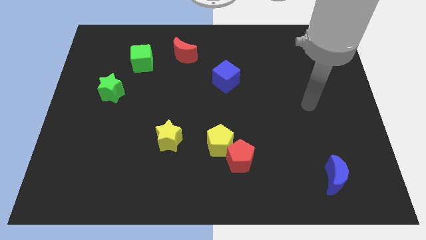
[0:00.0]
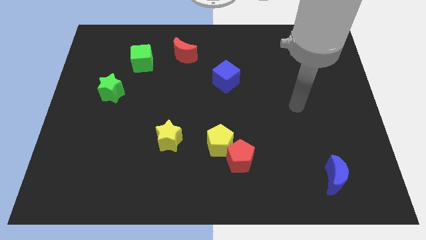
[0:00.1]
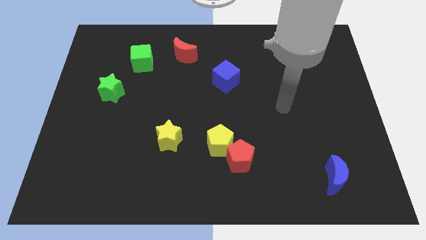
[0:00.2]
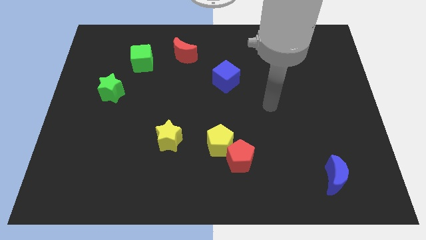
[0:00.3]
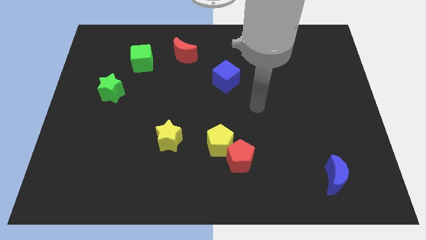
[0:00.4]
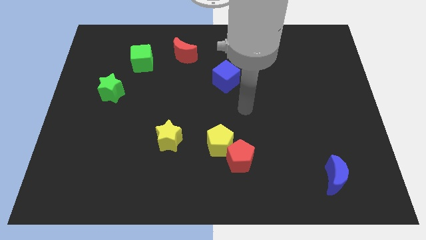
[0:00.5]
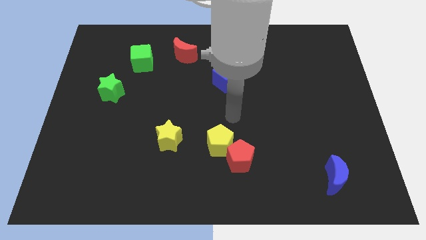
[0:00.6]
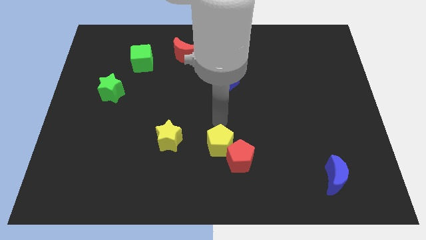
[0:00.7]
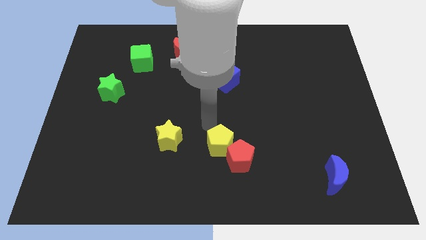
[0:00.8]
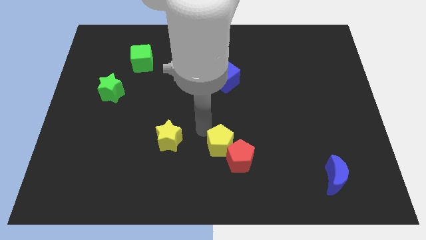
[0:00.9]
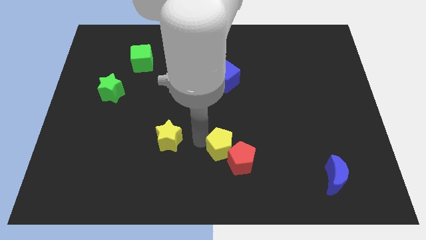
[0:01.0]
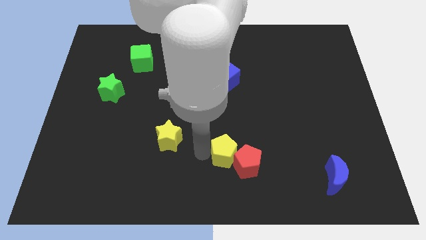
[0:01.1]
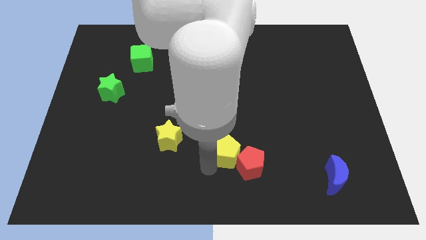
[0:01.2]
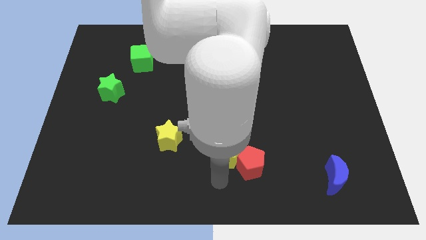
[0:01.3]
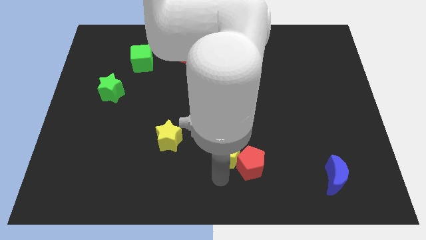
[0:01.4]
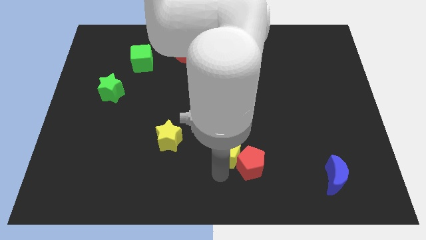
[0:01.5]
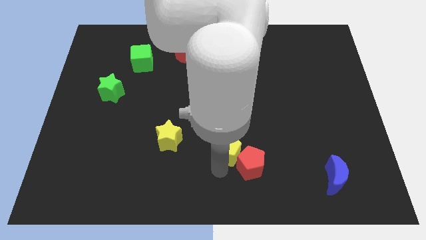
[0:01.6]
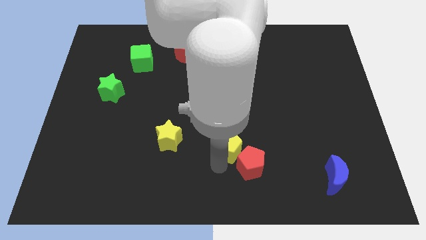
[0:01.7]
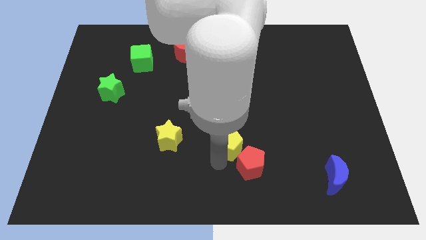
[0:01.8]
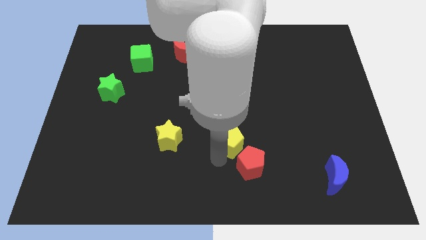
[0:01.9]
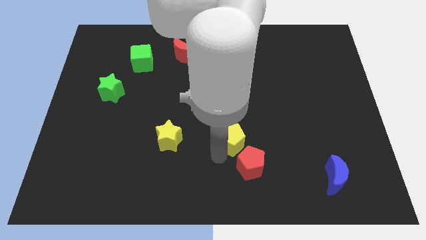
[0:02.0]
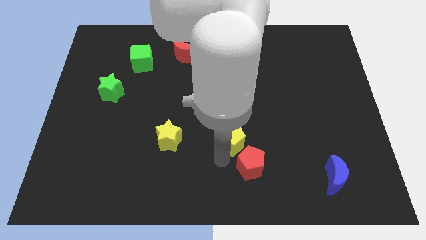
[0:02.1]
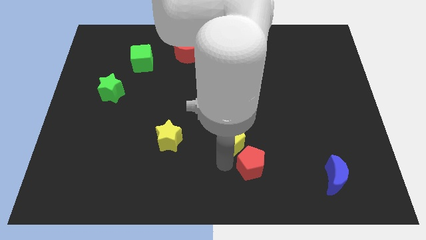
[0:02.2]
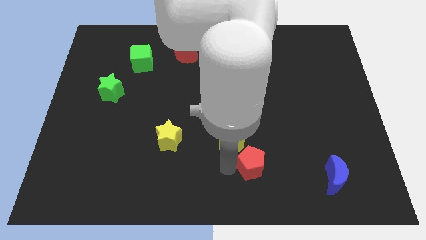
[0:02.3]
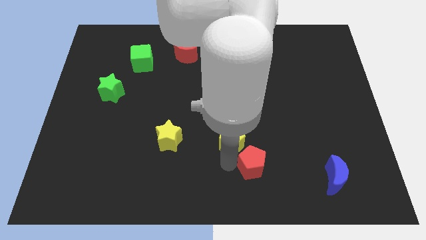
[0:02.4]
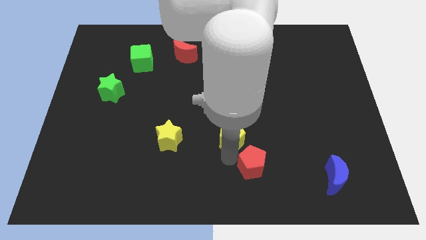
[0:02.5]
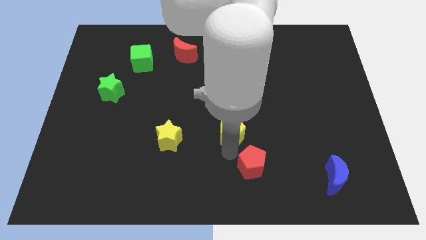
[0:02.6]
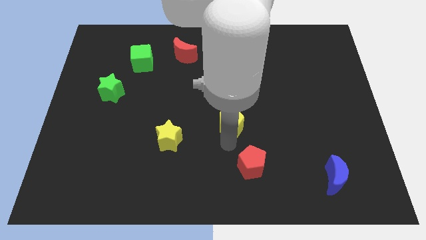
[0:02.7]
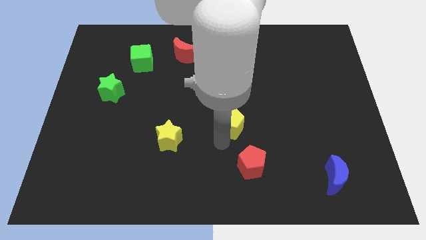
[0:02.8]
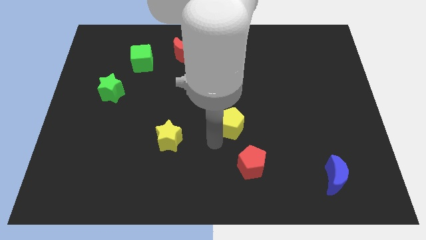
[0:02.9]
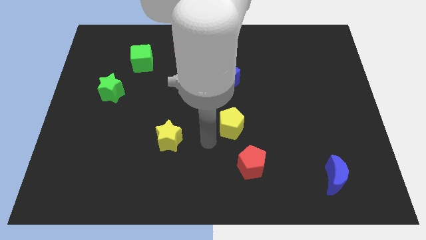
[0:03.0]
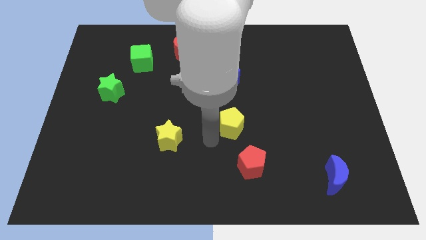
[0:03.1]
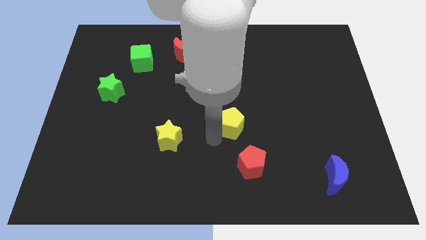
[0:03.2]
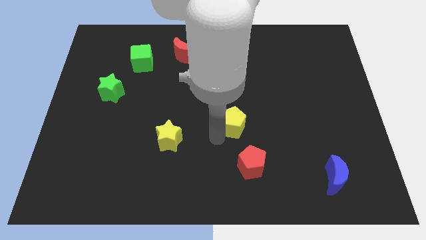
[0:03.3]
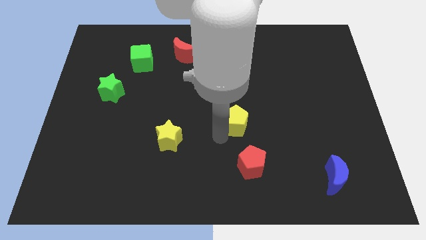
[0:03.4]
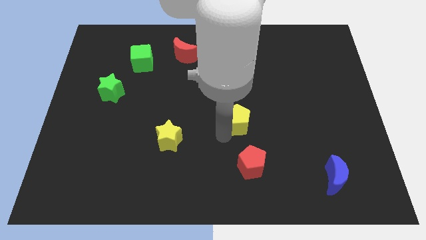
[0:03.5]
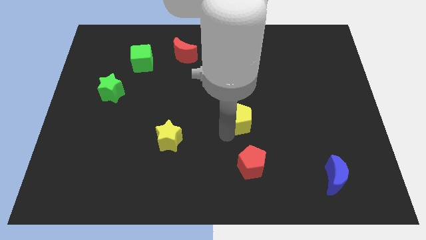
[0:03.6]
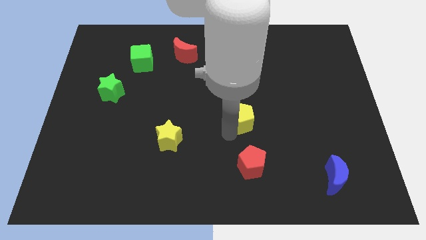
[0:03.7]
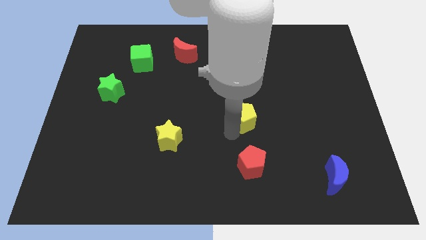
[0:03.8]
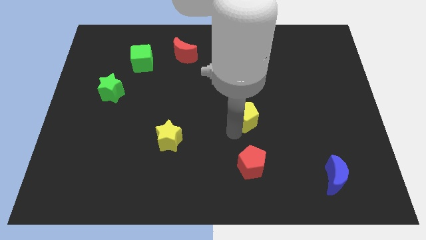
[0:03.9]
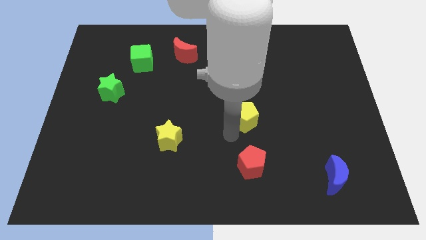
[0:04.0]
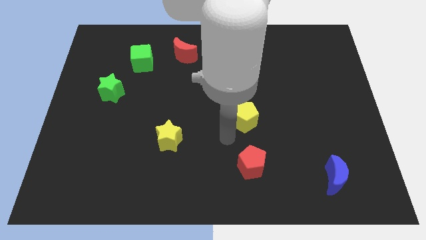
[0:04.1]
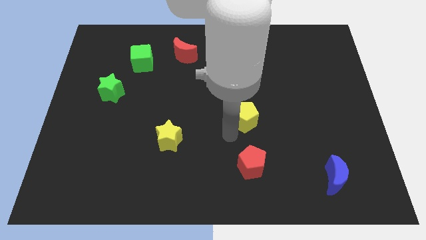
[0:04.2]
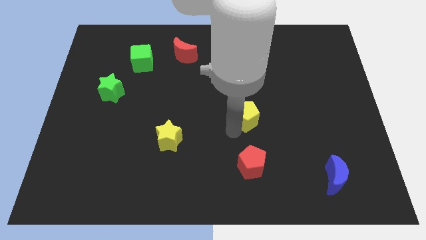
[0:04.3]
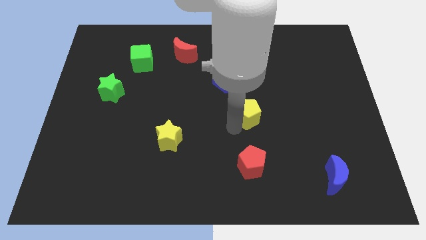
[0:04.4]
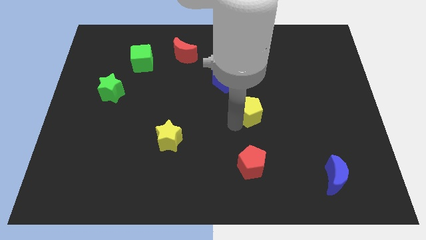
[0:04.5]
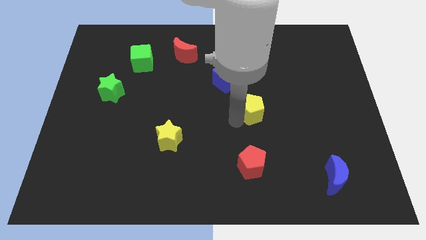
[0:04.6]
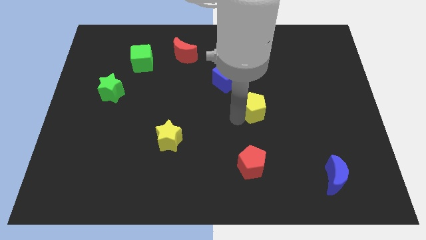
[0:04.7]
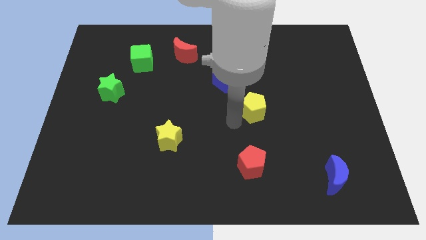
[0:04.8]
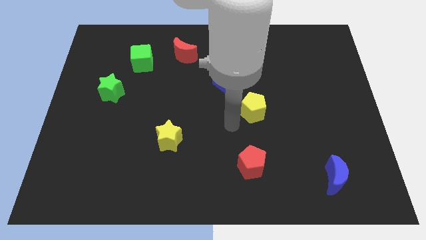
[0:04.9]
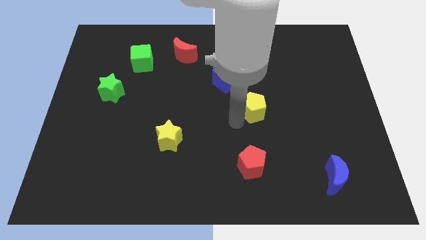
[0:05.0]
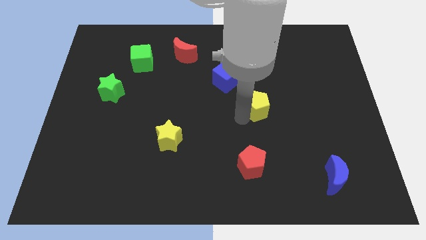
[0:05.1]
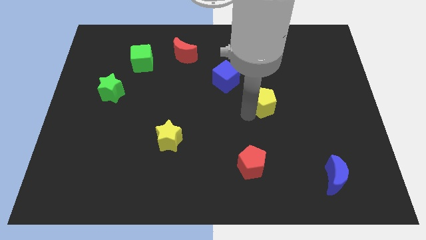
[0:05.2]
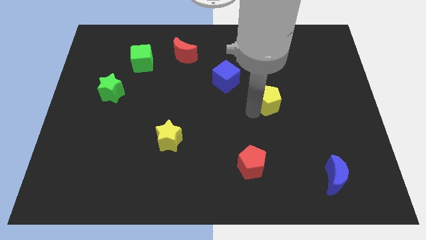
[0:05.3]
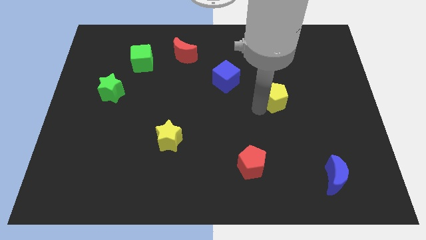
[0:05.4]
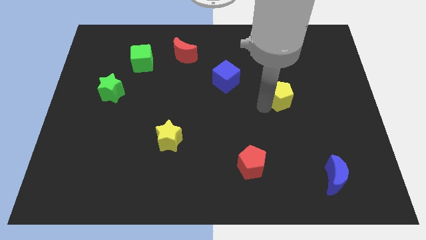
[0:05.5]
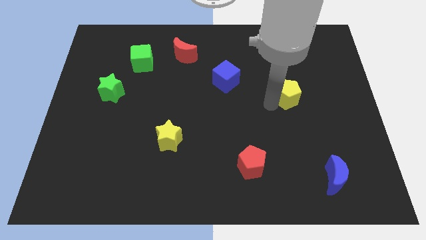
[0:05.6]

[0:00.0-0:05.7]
push the yellow pentagon diagonally upwards and right

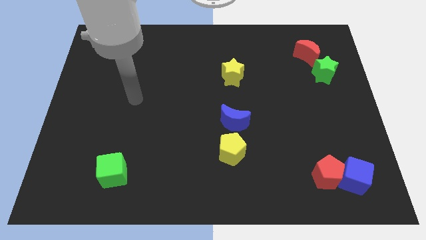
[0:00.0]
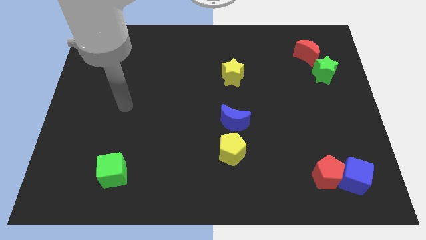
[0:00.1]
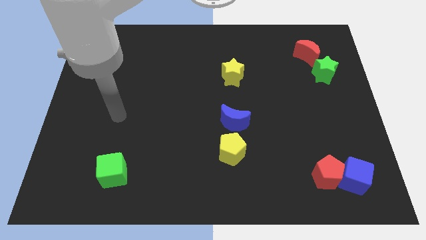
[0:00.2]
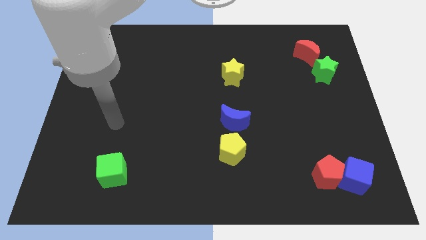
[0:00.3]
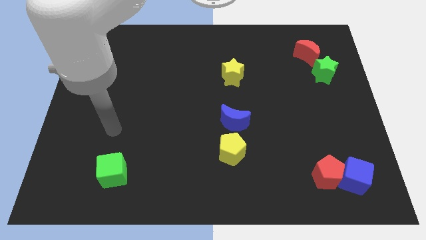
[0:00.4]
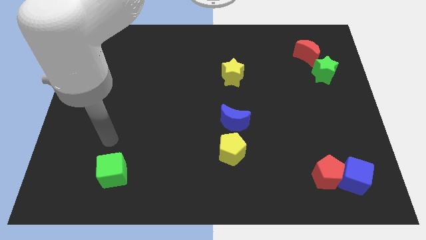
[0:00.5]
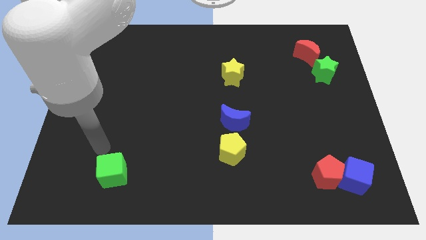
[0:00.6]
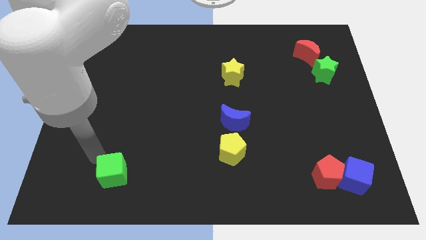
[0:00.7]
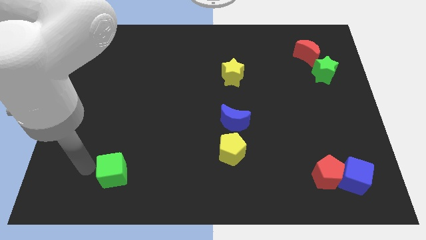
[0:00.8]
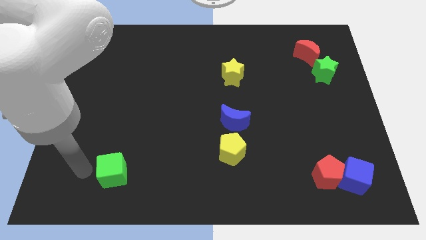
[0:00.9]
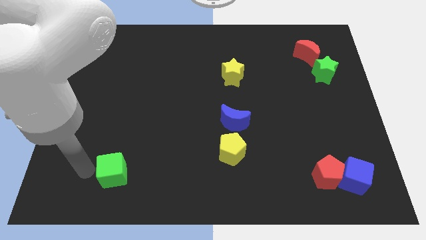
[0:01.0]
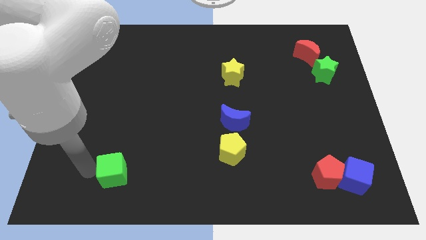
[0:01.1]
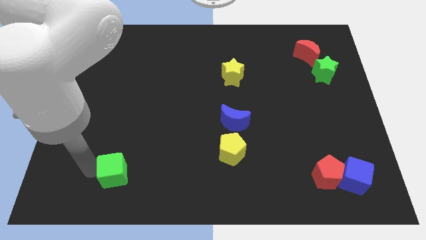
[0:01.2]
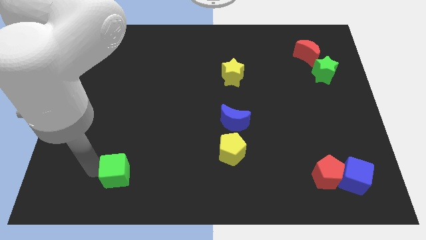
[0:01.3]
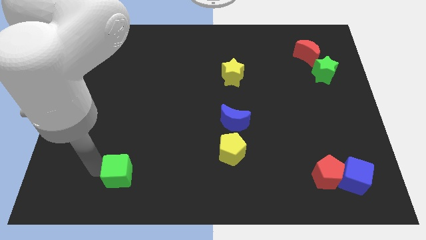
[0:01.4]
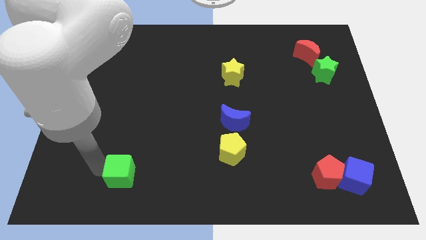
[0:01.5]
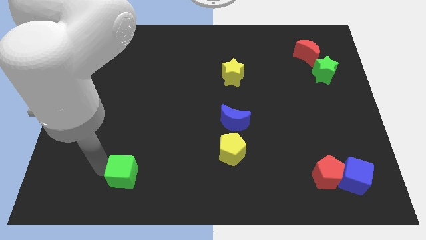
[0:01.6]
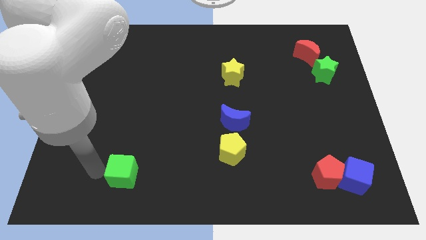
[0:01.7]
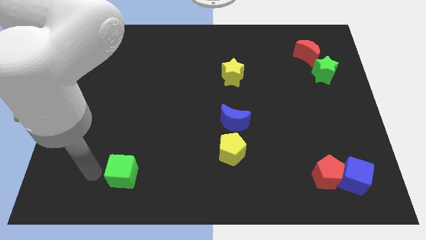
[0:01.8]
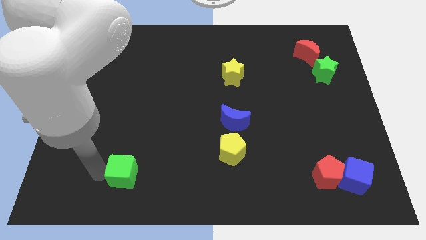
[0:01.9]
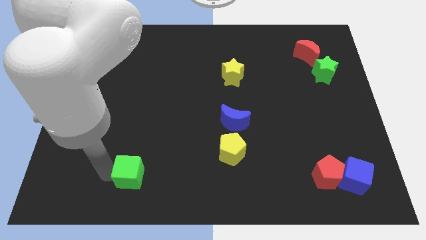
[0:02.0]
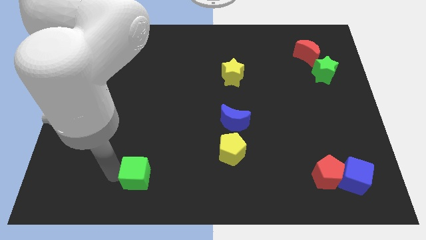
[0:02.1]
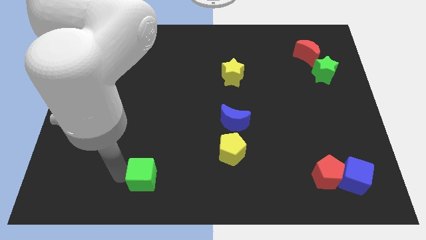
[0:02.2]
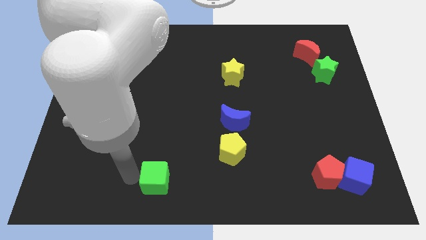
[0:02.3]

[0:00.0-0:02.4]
move the green cube a little bit right
